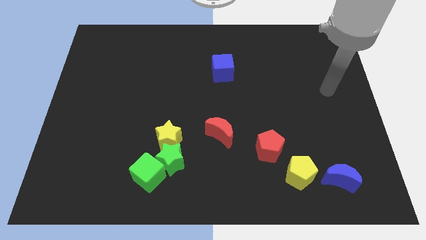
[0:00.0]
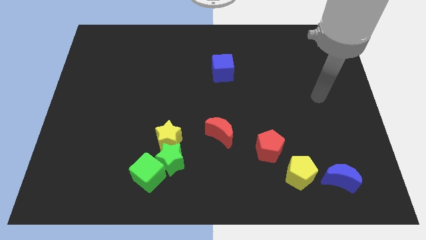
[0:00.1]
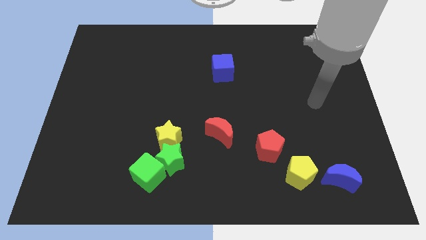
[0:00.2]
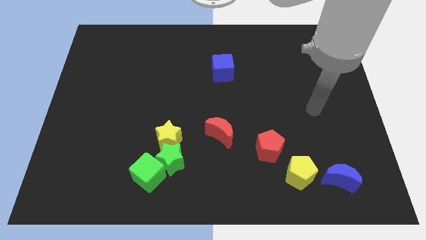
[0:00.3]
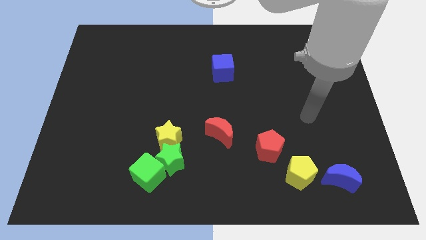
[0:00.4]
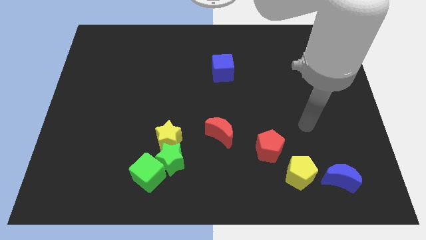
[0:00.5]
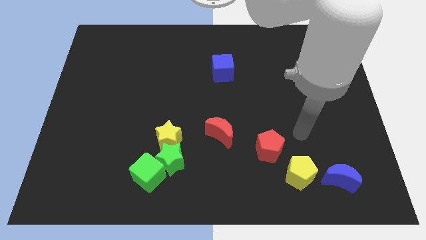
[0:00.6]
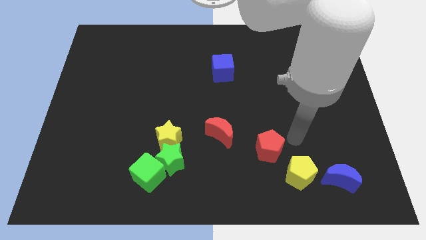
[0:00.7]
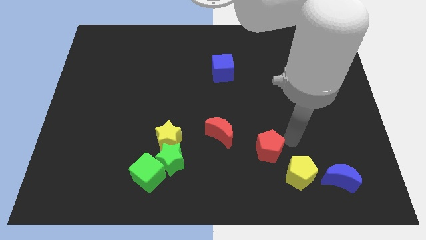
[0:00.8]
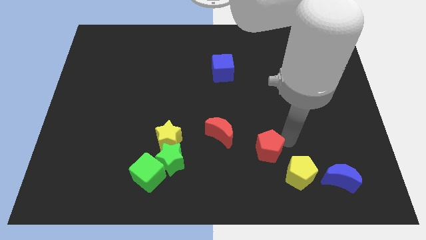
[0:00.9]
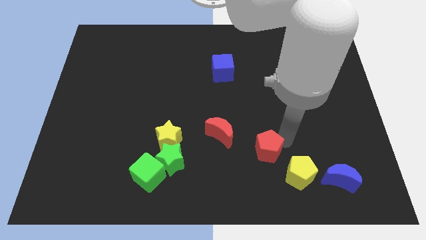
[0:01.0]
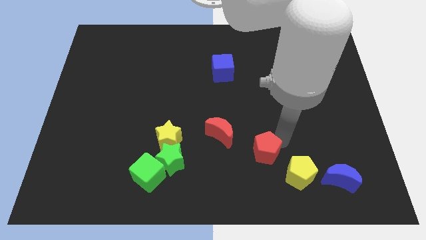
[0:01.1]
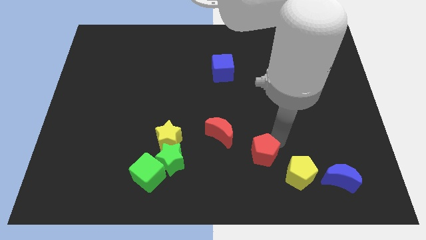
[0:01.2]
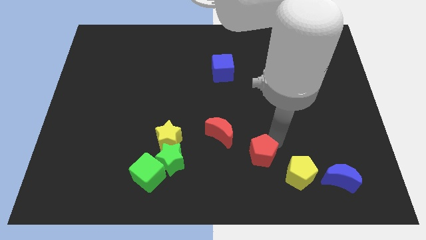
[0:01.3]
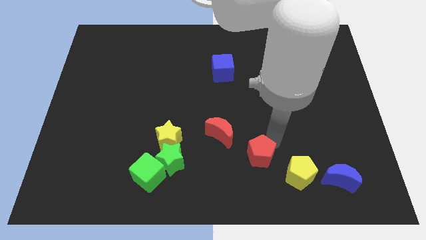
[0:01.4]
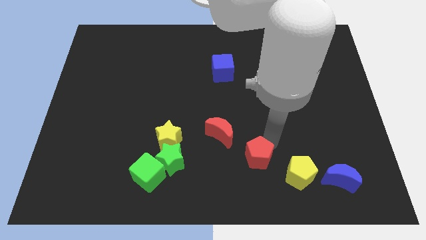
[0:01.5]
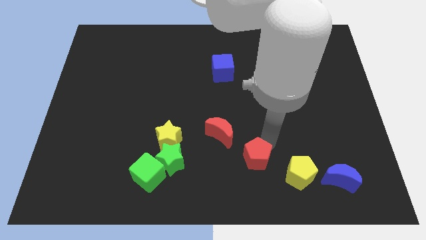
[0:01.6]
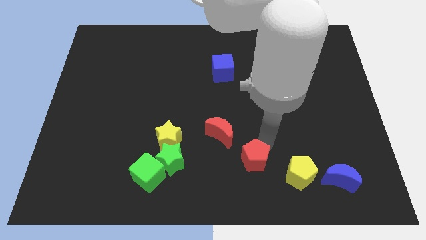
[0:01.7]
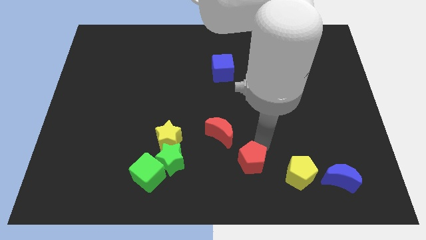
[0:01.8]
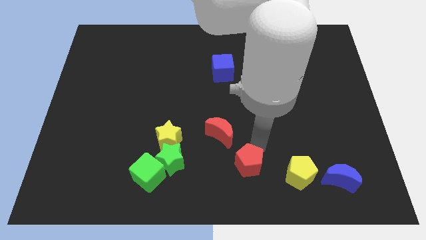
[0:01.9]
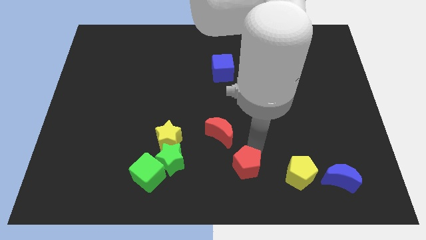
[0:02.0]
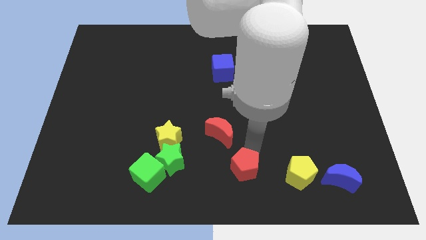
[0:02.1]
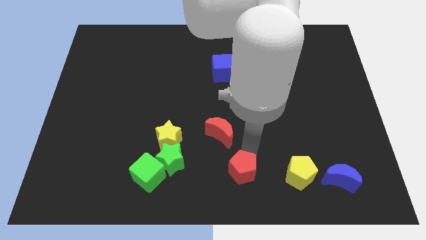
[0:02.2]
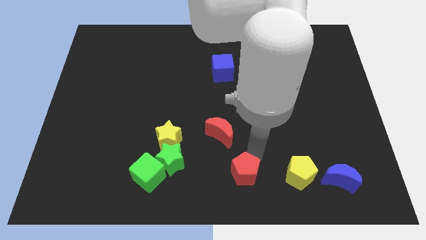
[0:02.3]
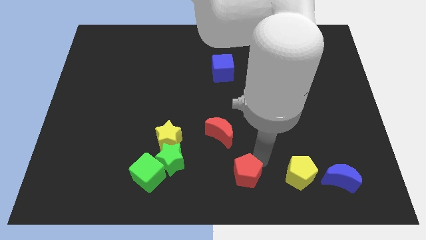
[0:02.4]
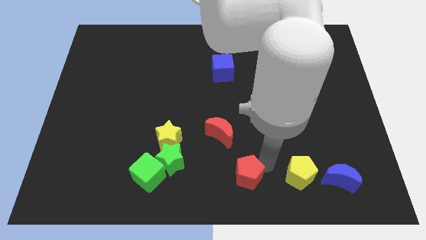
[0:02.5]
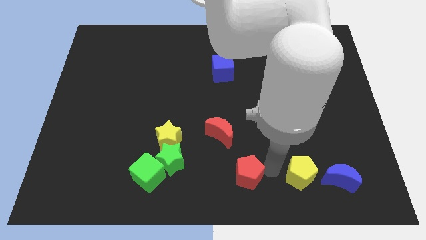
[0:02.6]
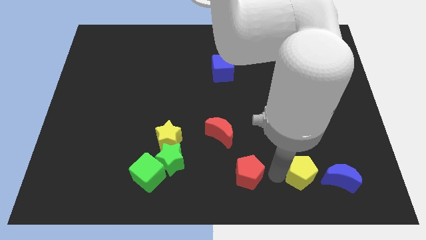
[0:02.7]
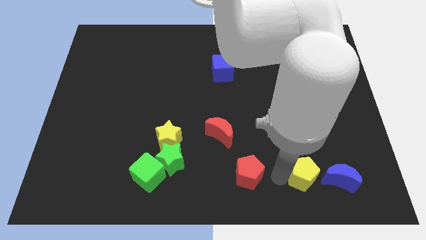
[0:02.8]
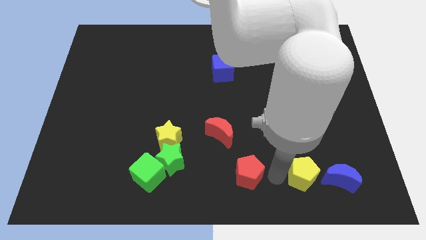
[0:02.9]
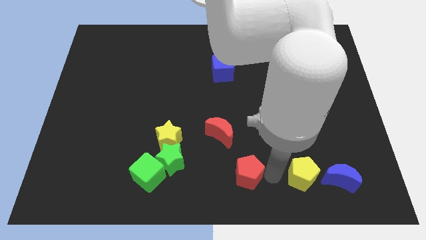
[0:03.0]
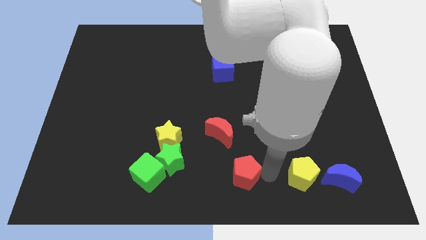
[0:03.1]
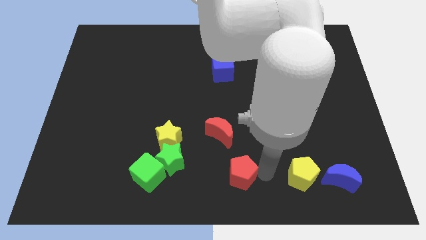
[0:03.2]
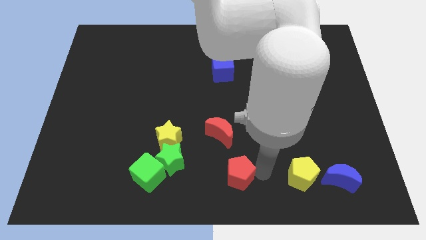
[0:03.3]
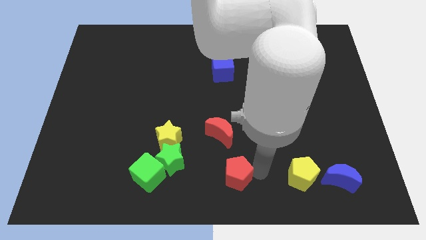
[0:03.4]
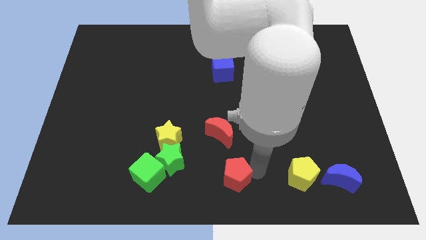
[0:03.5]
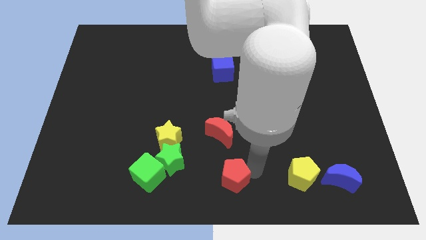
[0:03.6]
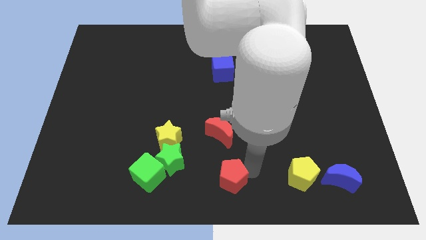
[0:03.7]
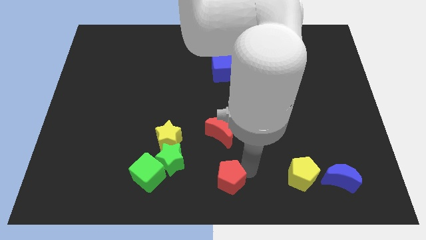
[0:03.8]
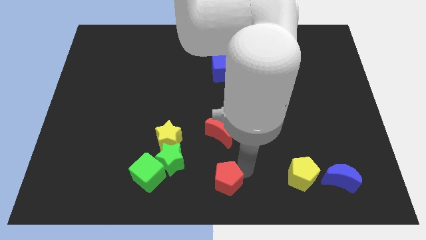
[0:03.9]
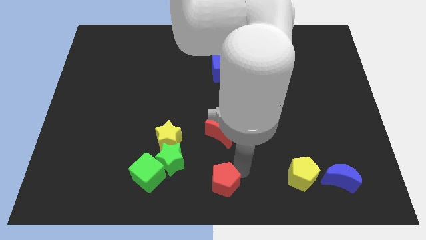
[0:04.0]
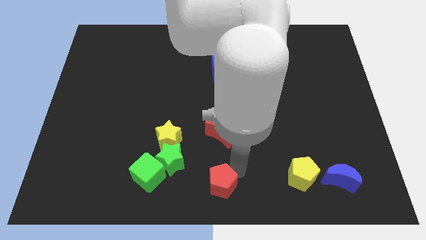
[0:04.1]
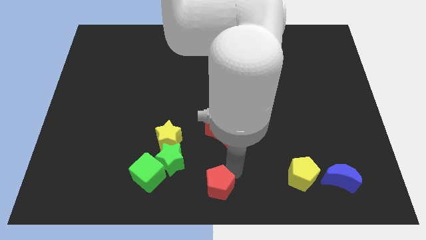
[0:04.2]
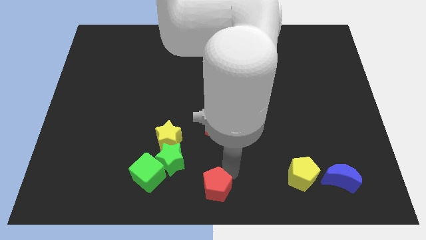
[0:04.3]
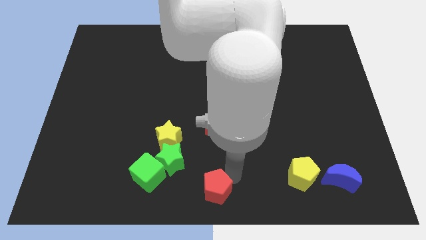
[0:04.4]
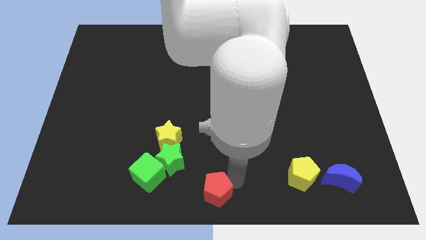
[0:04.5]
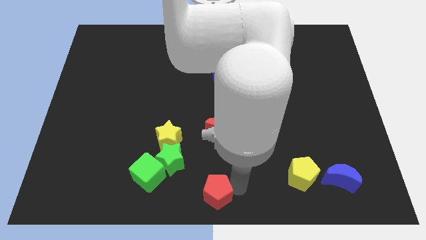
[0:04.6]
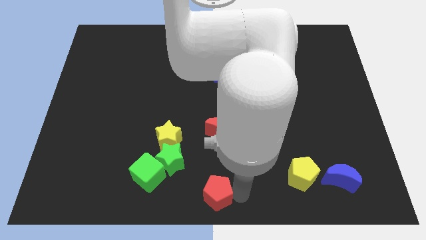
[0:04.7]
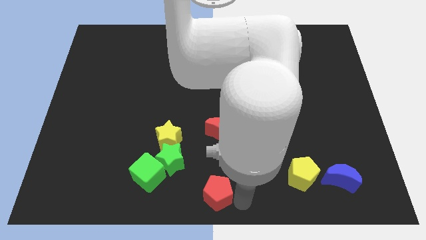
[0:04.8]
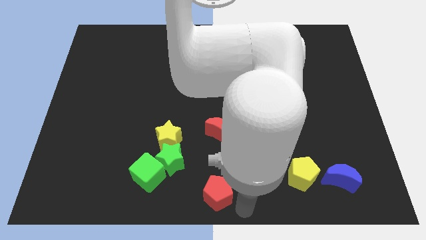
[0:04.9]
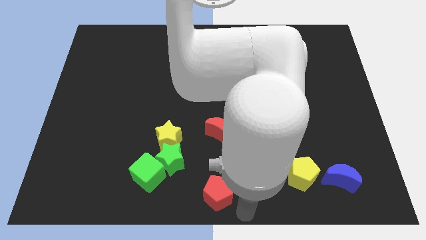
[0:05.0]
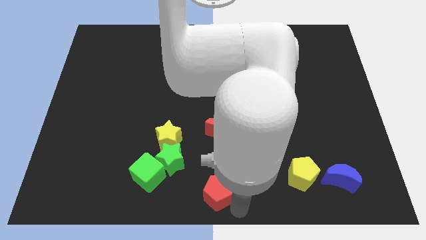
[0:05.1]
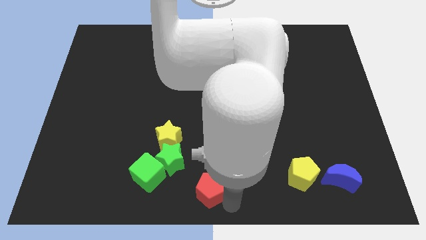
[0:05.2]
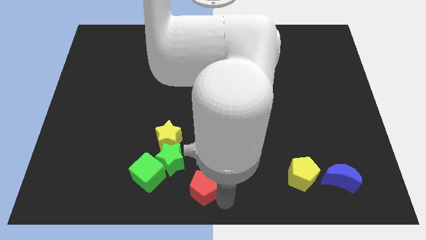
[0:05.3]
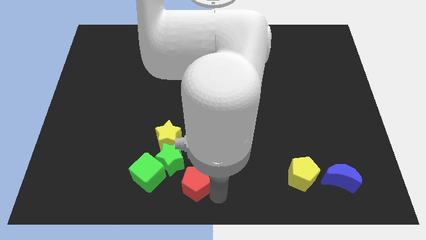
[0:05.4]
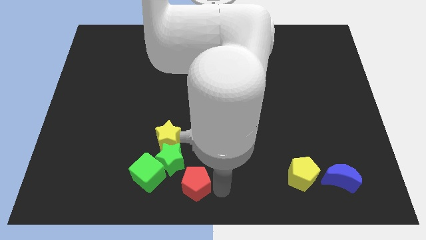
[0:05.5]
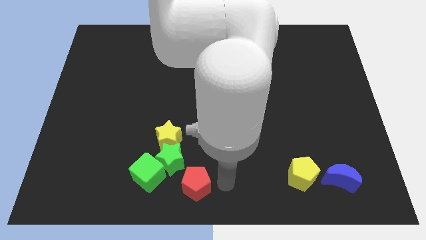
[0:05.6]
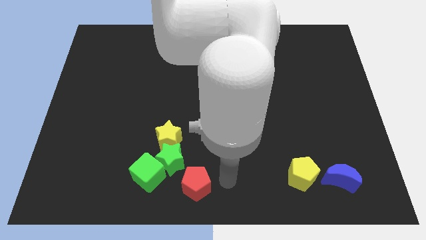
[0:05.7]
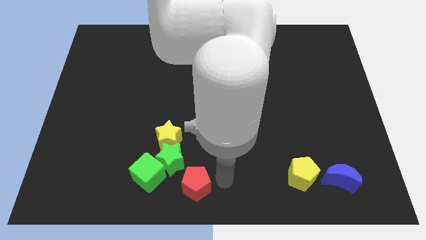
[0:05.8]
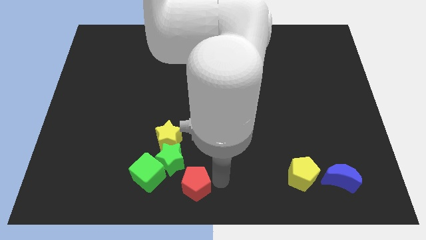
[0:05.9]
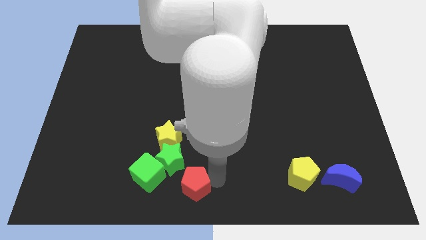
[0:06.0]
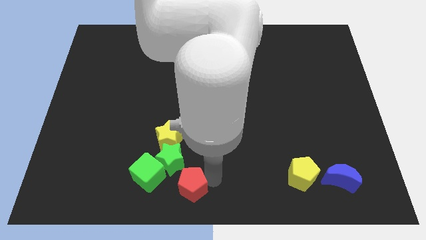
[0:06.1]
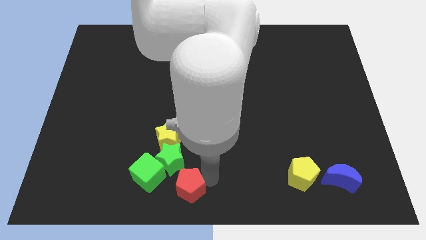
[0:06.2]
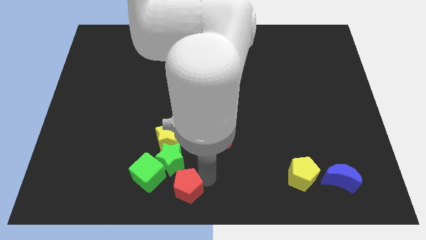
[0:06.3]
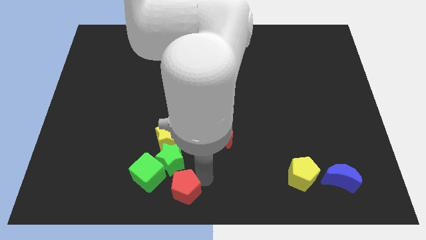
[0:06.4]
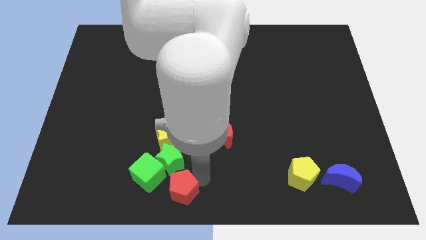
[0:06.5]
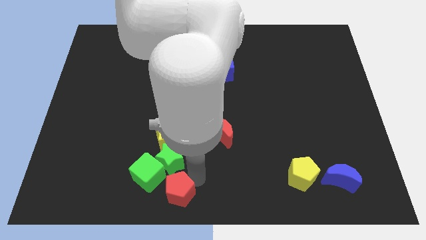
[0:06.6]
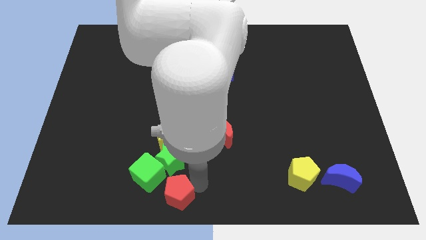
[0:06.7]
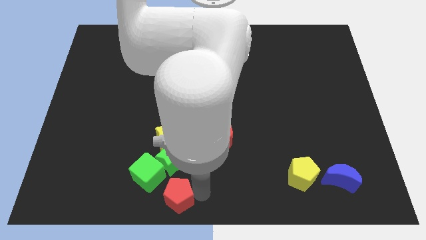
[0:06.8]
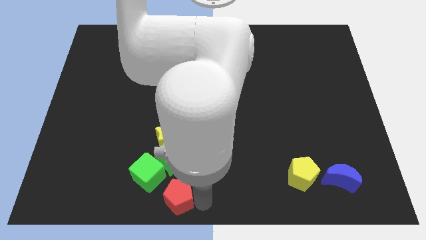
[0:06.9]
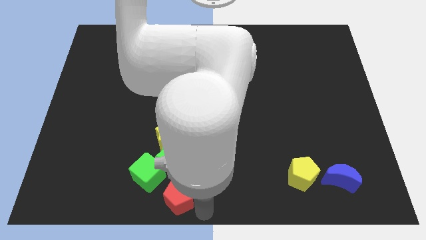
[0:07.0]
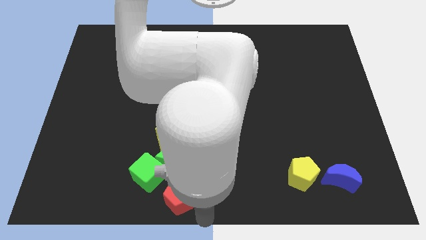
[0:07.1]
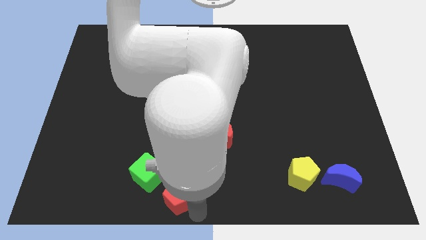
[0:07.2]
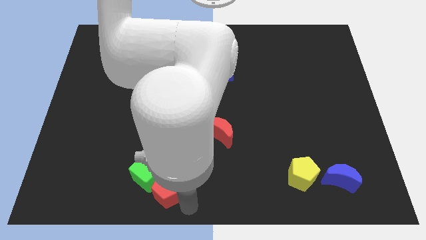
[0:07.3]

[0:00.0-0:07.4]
move the red pentagon close to the green cube
